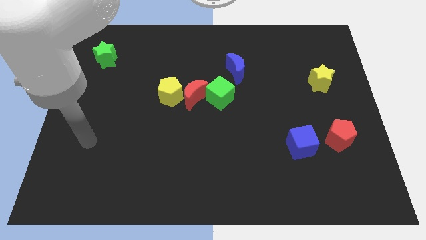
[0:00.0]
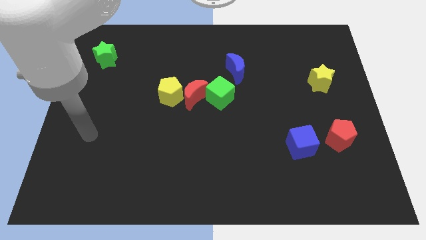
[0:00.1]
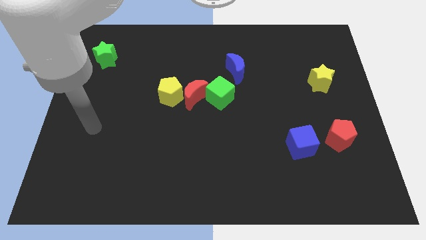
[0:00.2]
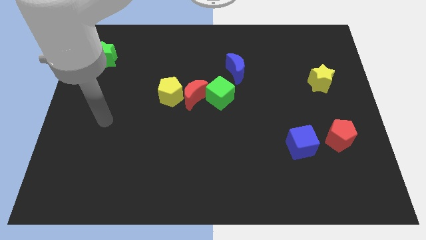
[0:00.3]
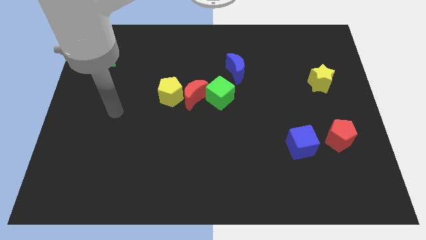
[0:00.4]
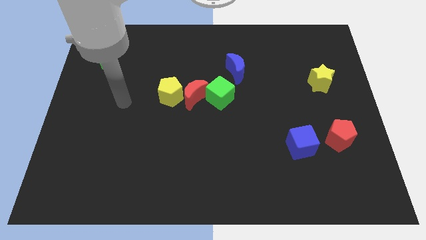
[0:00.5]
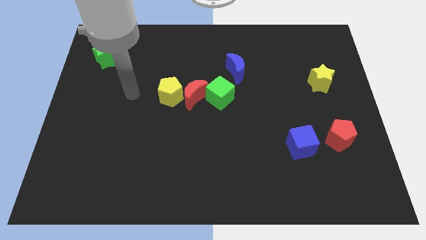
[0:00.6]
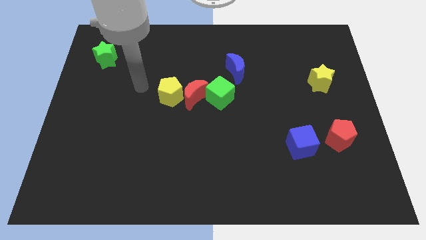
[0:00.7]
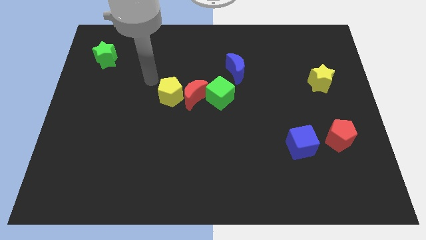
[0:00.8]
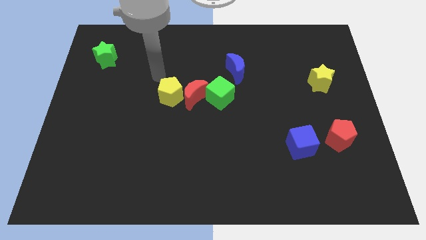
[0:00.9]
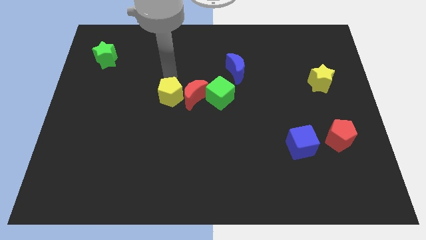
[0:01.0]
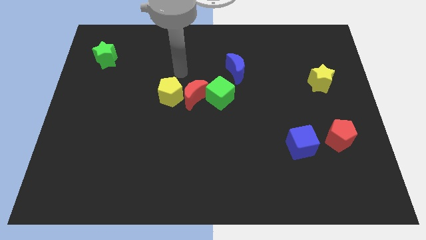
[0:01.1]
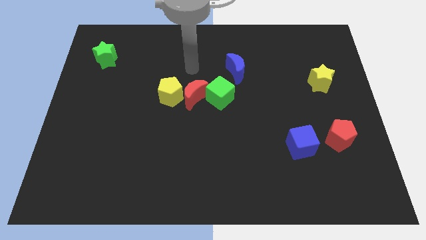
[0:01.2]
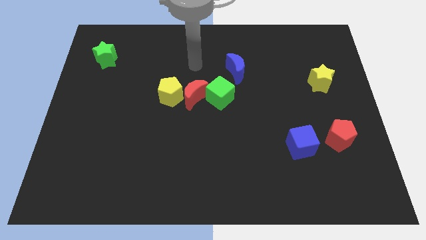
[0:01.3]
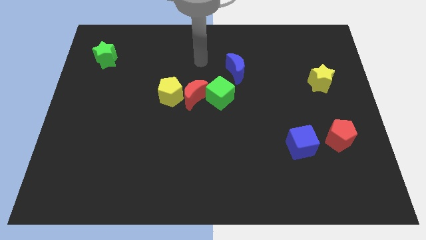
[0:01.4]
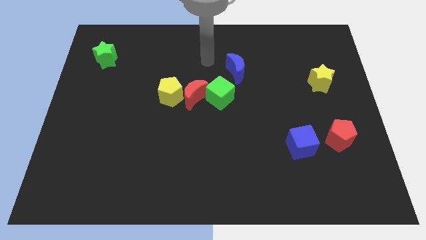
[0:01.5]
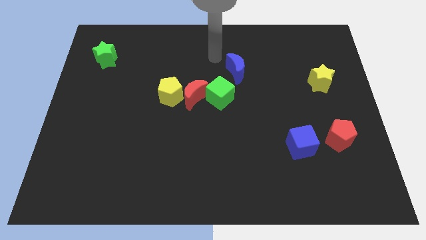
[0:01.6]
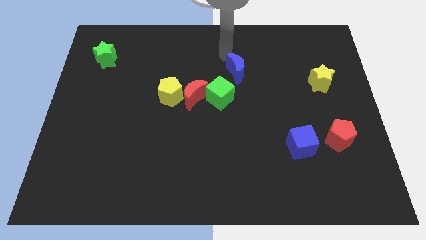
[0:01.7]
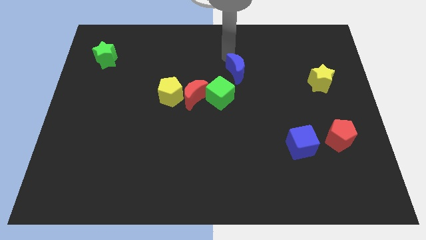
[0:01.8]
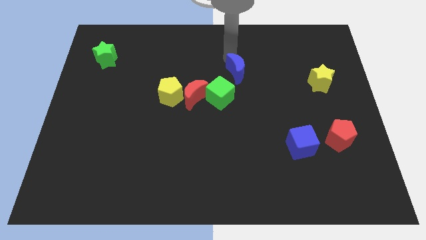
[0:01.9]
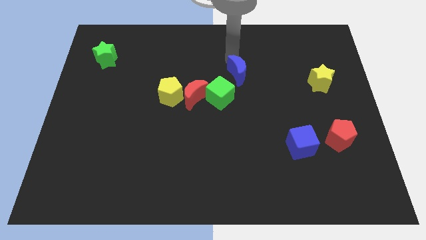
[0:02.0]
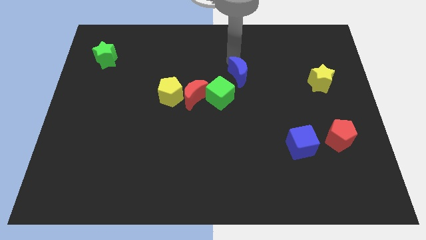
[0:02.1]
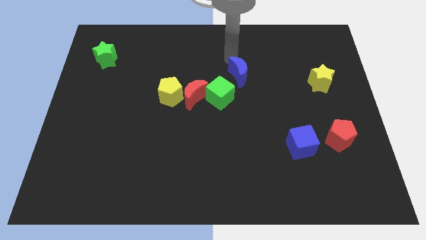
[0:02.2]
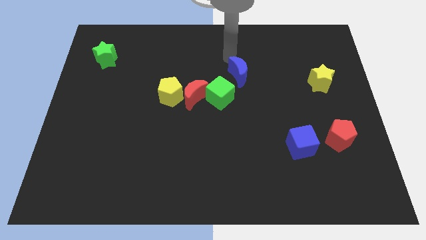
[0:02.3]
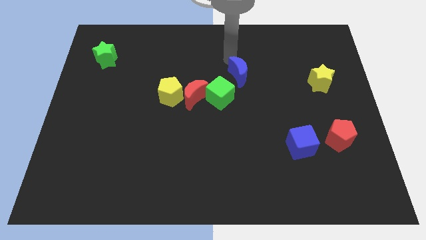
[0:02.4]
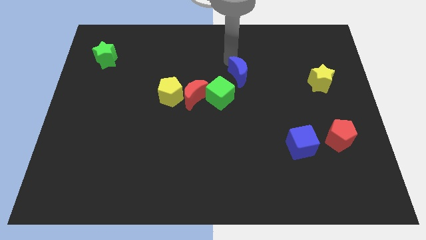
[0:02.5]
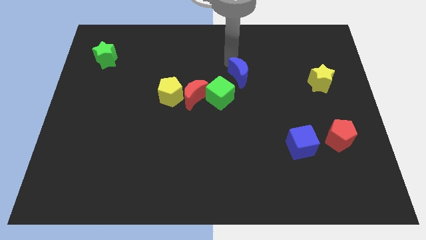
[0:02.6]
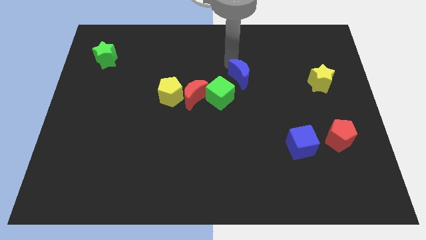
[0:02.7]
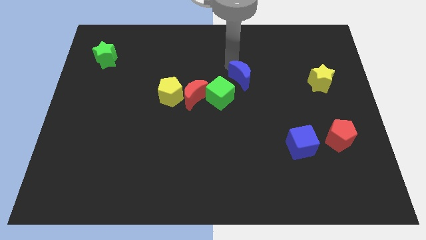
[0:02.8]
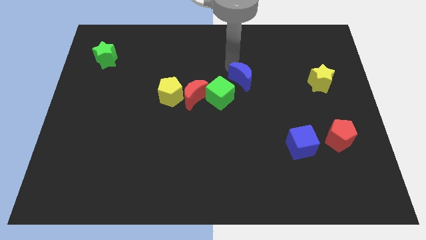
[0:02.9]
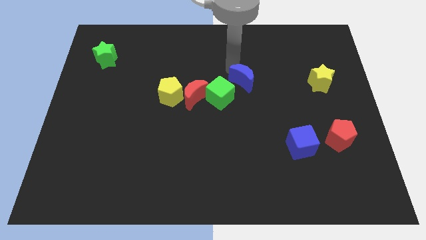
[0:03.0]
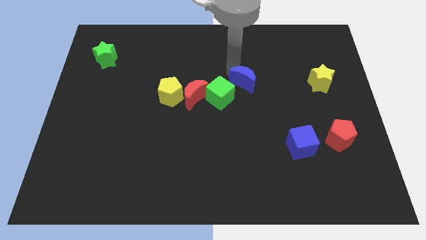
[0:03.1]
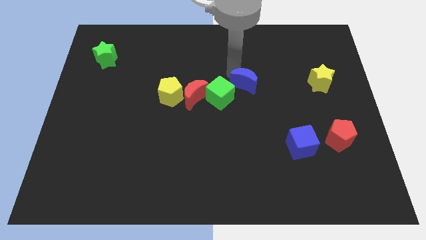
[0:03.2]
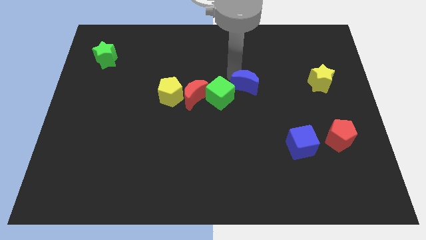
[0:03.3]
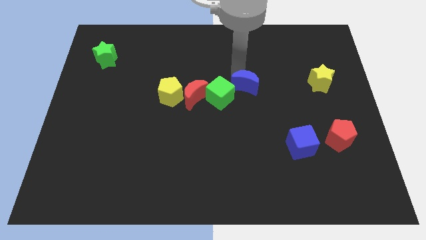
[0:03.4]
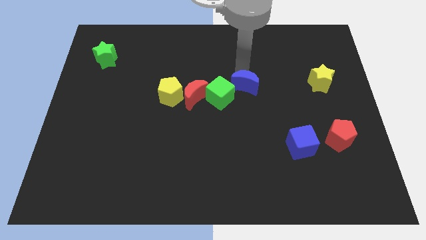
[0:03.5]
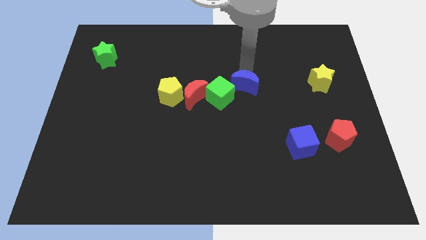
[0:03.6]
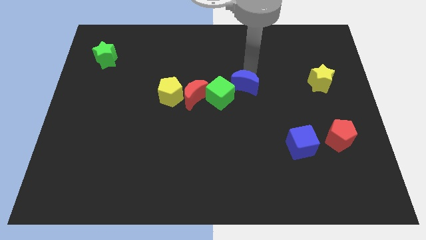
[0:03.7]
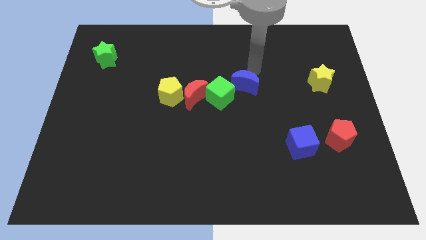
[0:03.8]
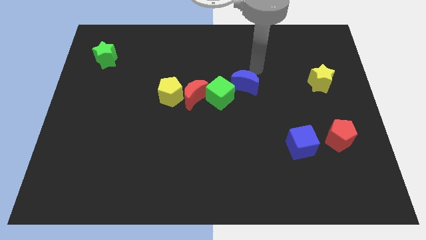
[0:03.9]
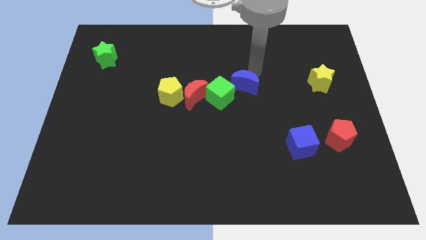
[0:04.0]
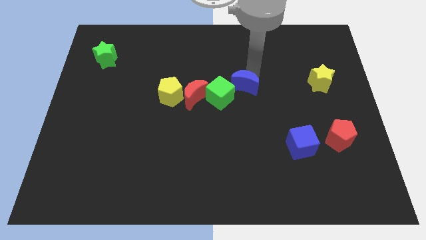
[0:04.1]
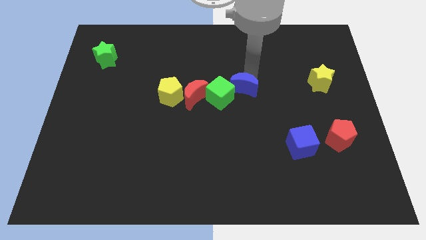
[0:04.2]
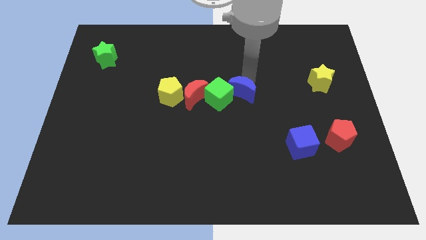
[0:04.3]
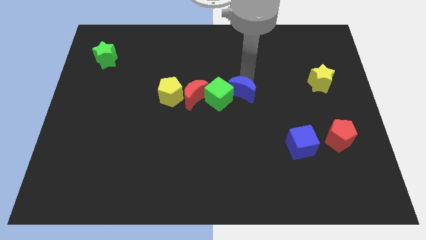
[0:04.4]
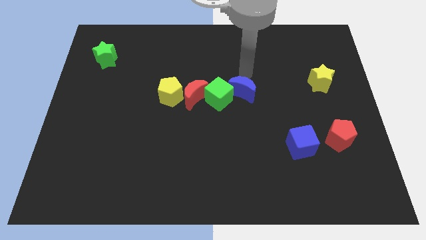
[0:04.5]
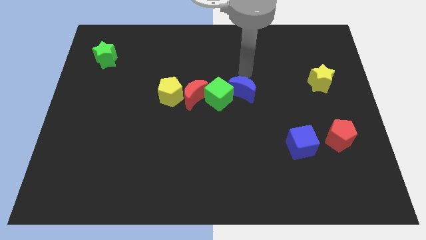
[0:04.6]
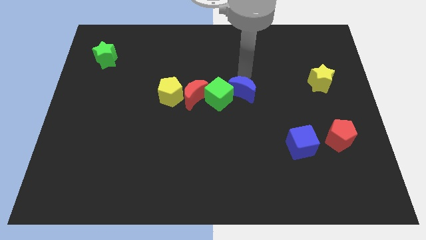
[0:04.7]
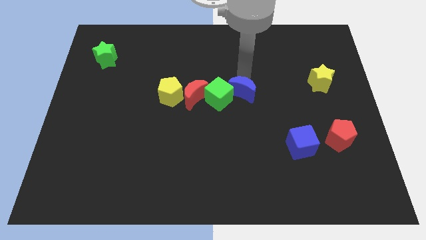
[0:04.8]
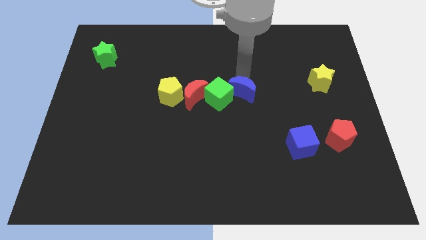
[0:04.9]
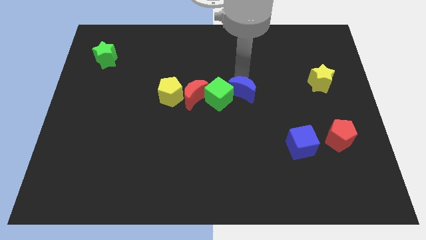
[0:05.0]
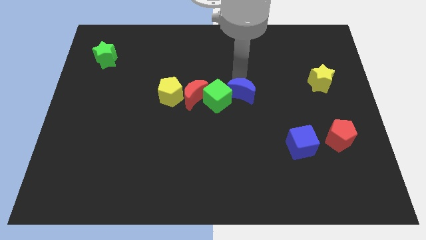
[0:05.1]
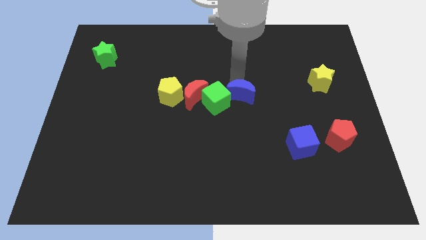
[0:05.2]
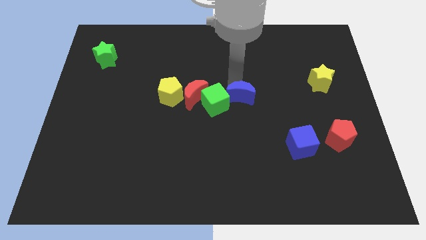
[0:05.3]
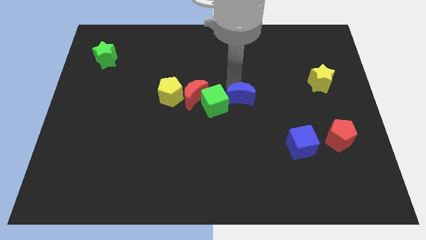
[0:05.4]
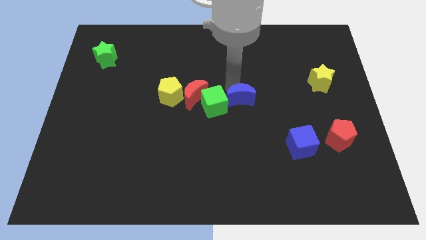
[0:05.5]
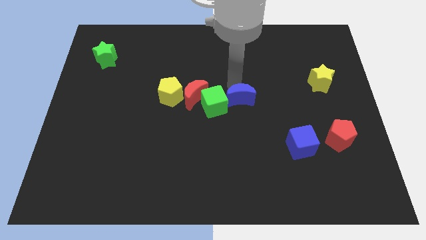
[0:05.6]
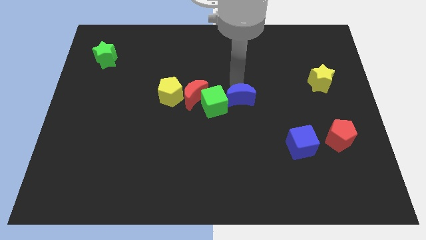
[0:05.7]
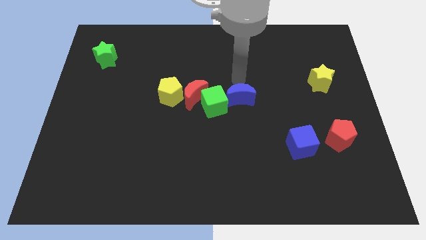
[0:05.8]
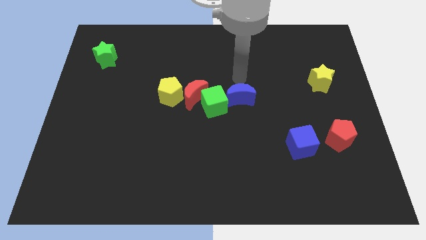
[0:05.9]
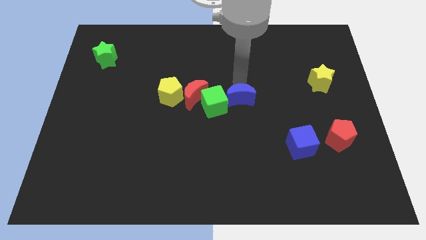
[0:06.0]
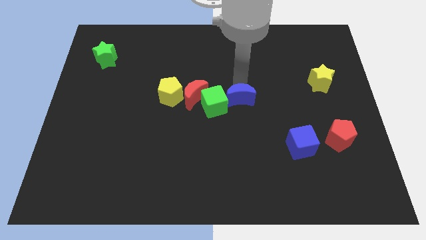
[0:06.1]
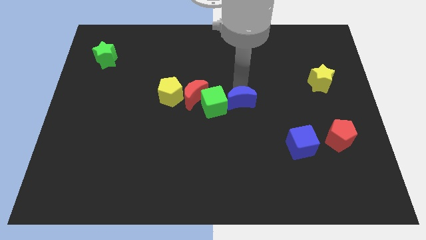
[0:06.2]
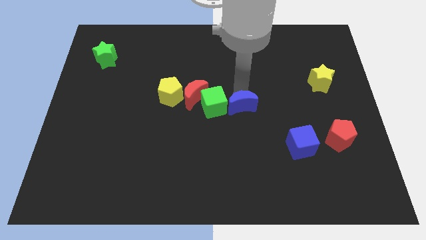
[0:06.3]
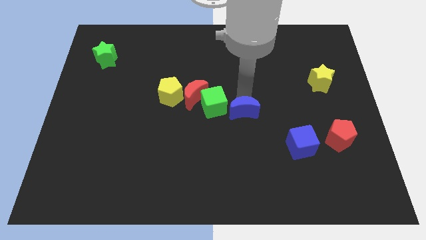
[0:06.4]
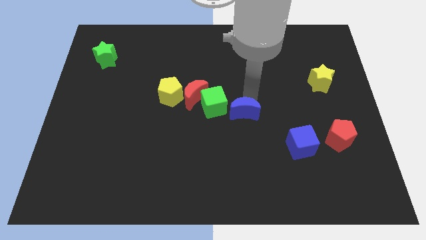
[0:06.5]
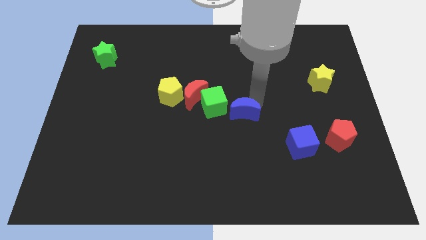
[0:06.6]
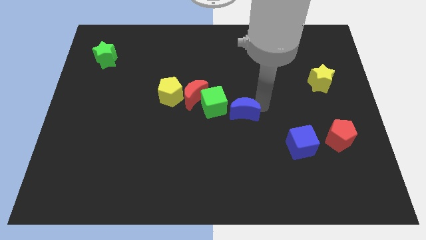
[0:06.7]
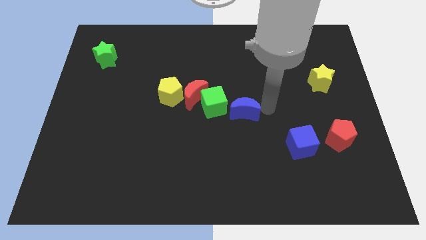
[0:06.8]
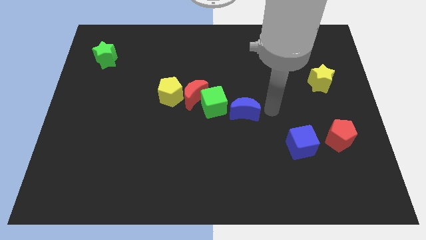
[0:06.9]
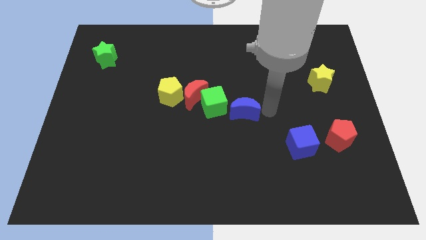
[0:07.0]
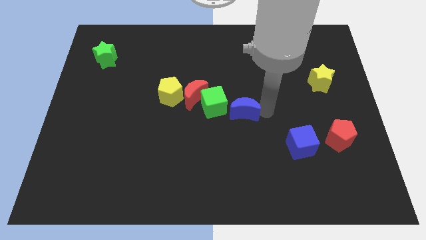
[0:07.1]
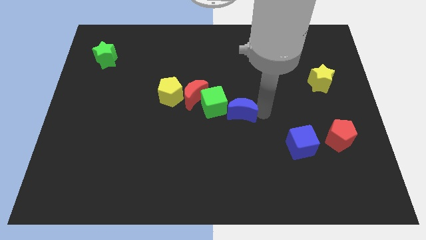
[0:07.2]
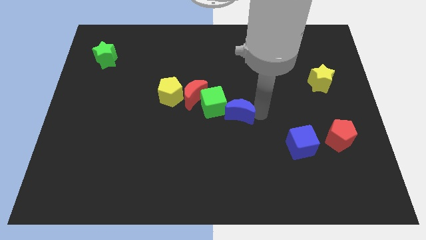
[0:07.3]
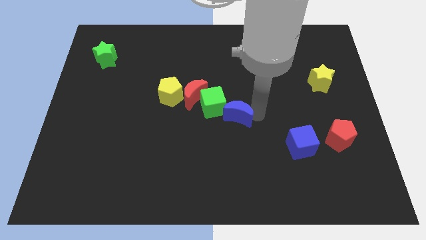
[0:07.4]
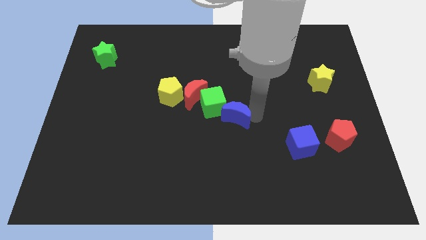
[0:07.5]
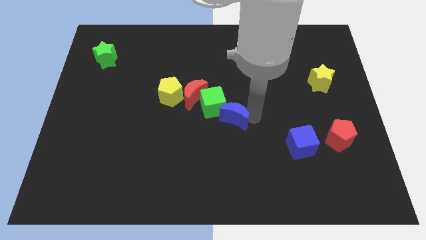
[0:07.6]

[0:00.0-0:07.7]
slightly push the blue moon down and then to the left

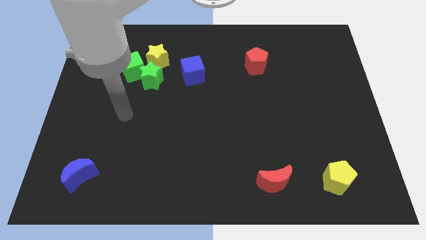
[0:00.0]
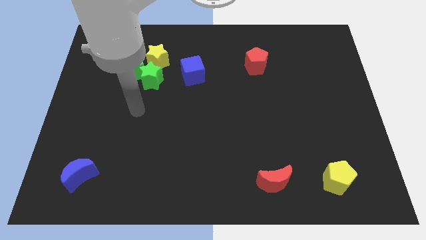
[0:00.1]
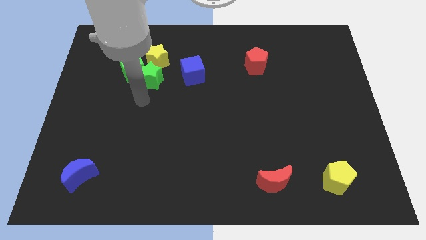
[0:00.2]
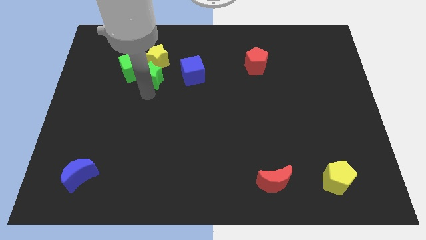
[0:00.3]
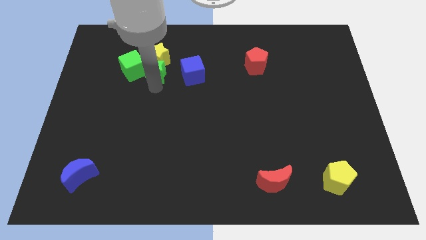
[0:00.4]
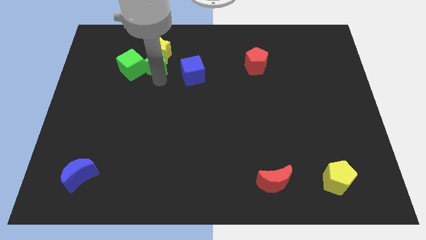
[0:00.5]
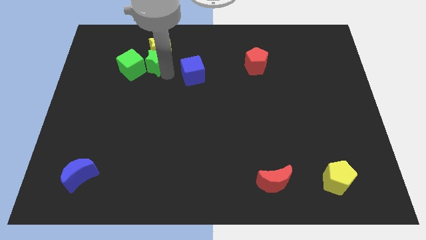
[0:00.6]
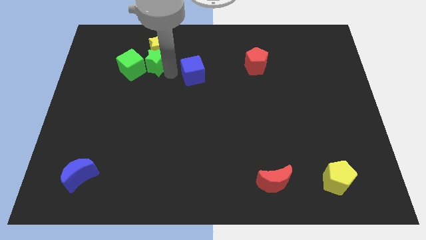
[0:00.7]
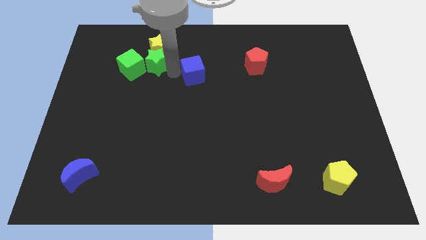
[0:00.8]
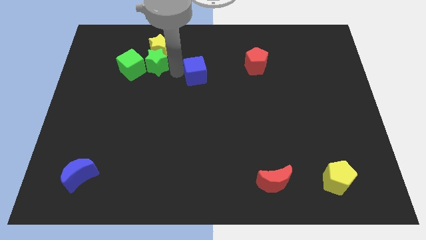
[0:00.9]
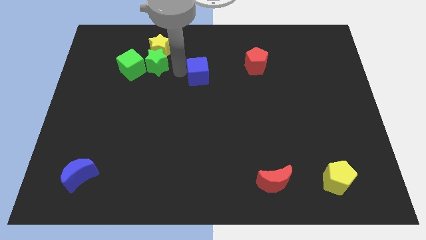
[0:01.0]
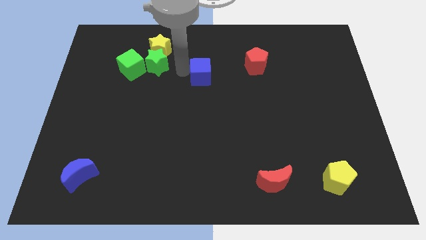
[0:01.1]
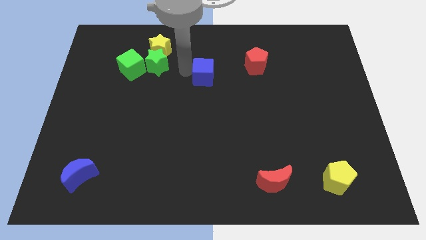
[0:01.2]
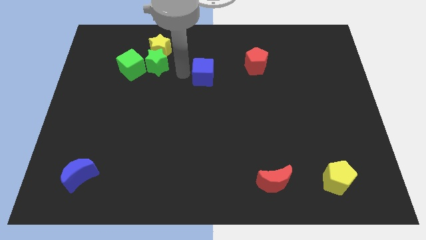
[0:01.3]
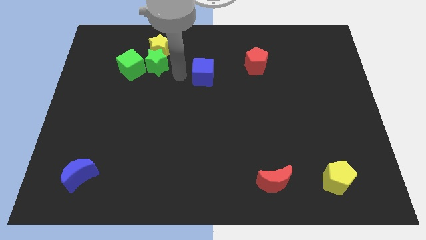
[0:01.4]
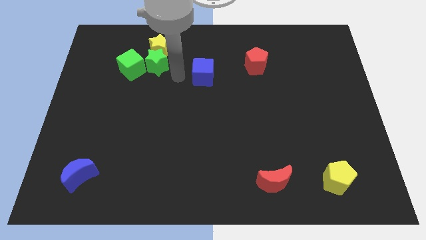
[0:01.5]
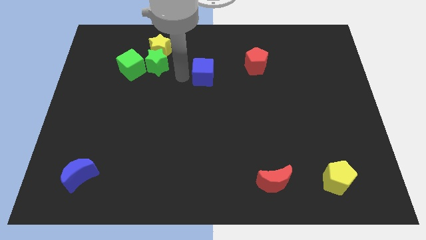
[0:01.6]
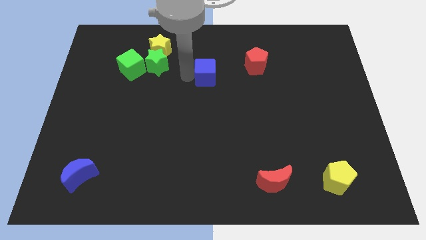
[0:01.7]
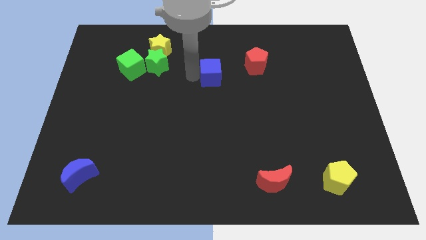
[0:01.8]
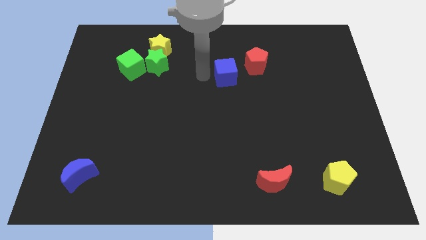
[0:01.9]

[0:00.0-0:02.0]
slightly move the blue cube right
